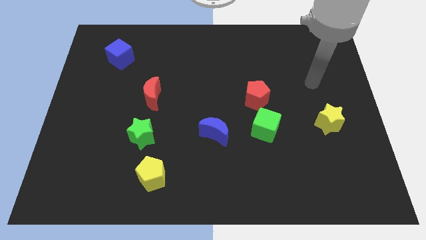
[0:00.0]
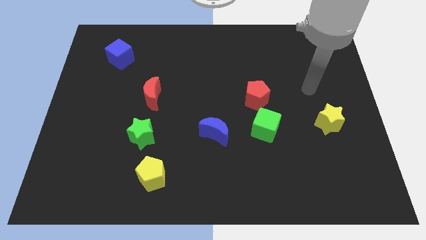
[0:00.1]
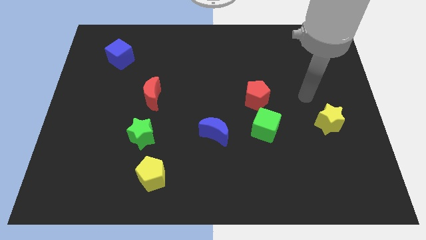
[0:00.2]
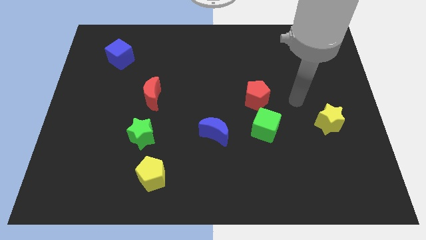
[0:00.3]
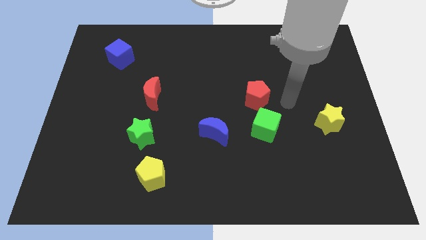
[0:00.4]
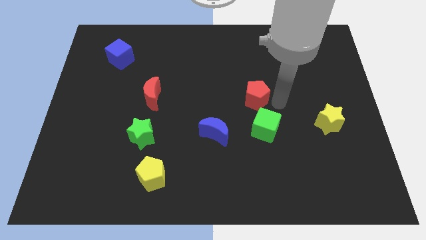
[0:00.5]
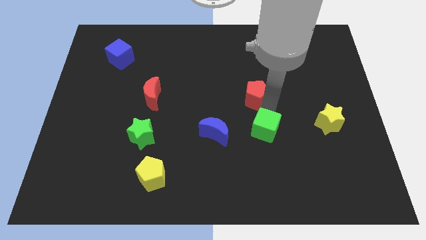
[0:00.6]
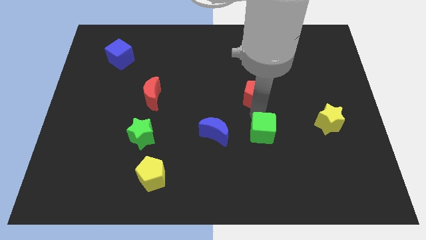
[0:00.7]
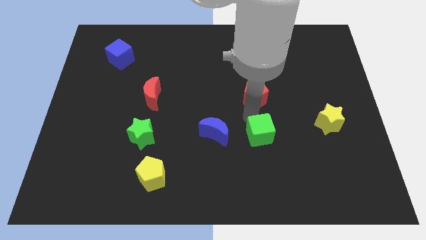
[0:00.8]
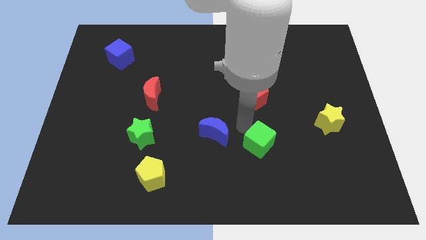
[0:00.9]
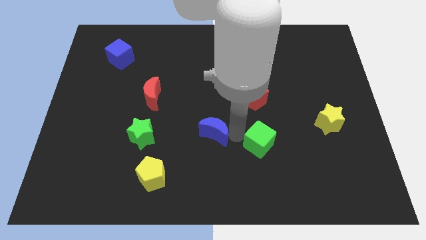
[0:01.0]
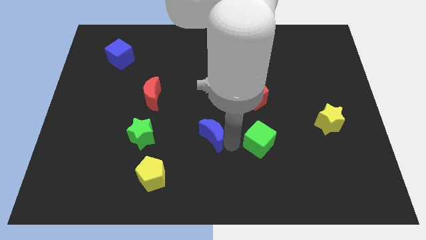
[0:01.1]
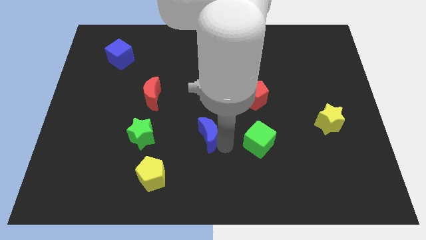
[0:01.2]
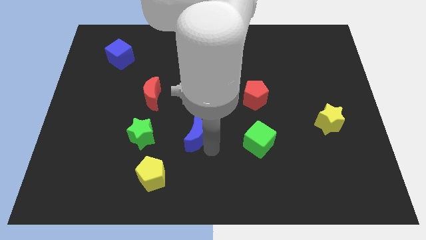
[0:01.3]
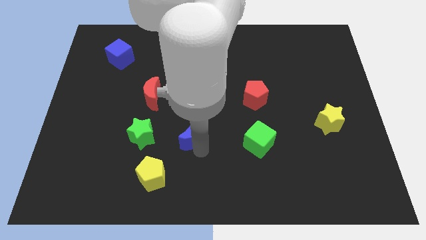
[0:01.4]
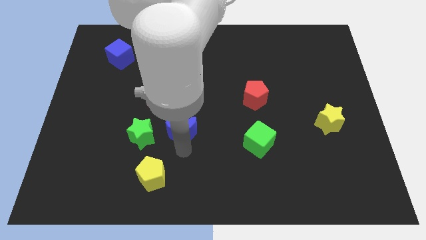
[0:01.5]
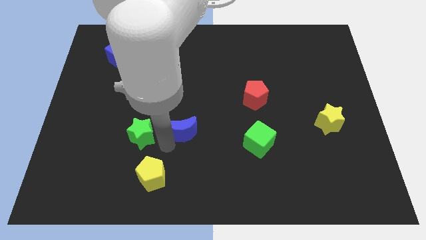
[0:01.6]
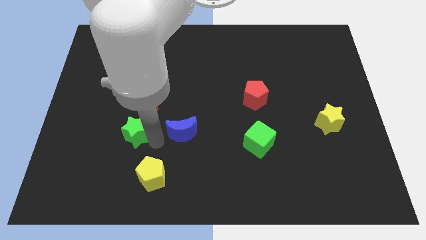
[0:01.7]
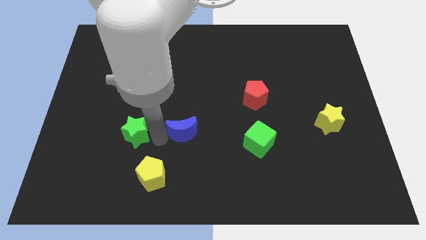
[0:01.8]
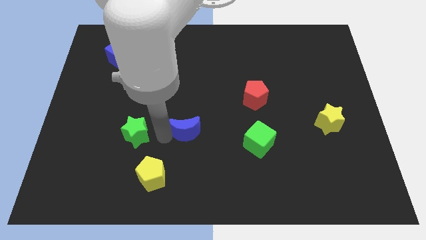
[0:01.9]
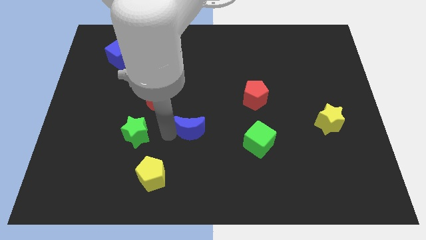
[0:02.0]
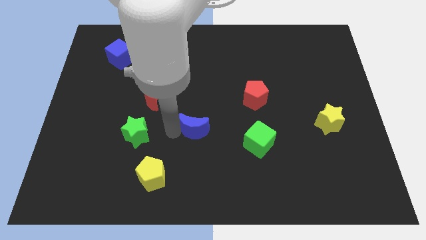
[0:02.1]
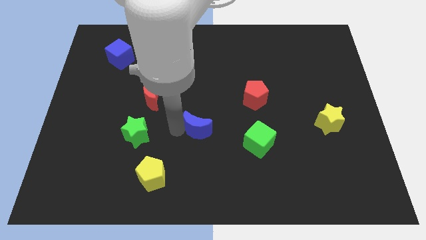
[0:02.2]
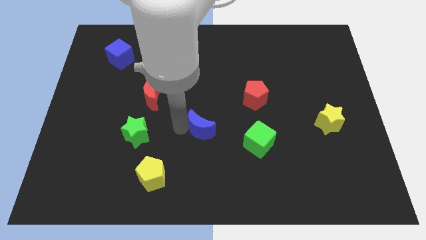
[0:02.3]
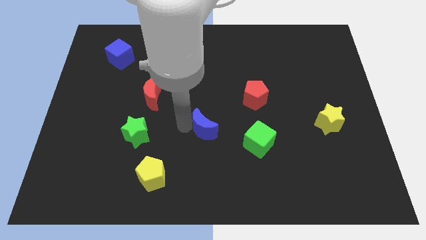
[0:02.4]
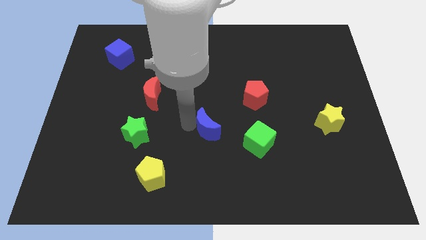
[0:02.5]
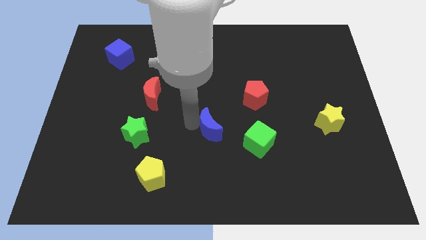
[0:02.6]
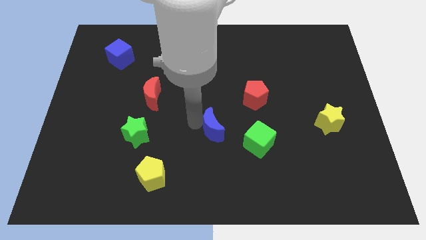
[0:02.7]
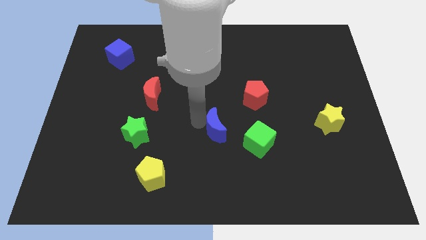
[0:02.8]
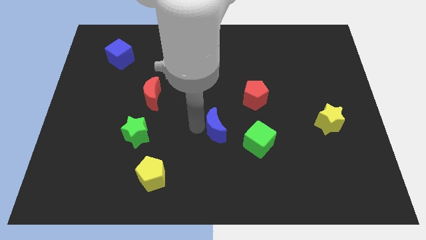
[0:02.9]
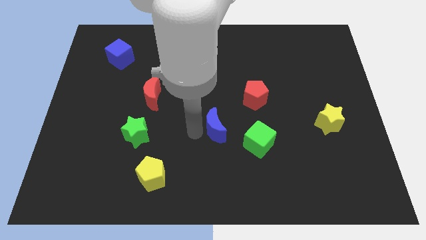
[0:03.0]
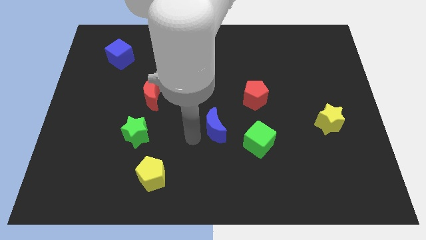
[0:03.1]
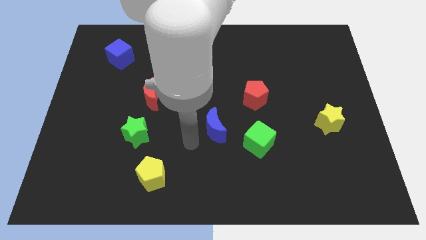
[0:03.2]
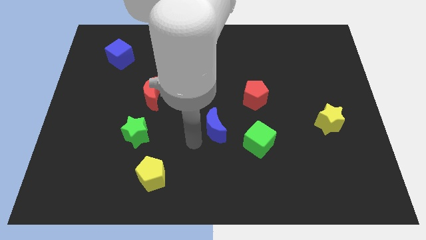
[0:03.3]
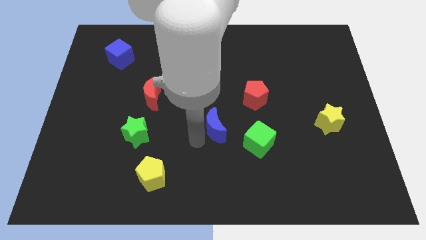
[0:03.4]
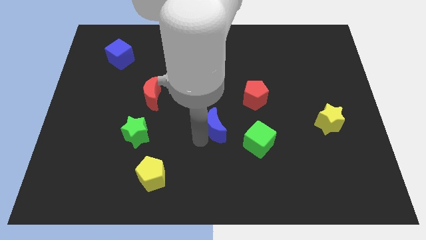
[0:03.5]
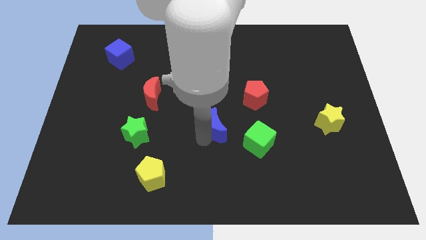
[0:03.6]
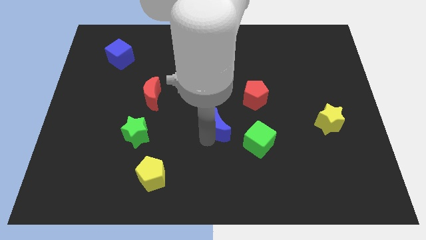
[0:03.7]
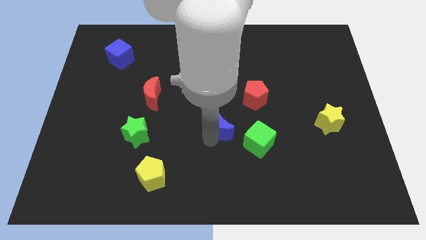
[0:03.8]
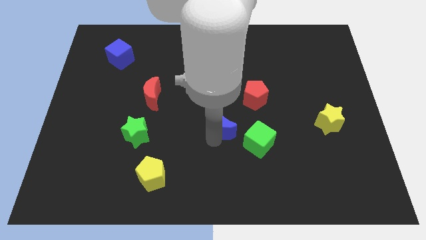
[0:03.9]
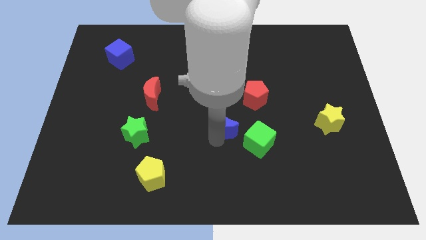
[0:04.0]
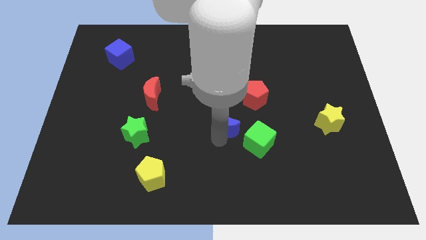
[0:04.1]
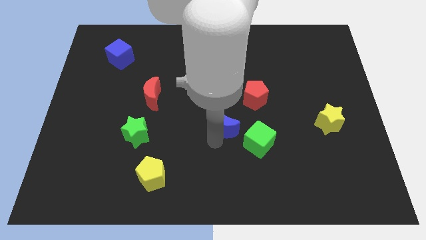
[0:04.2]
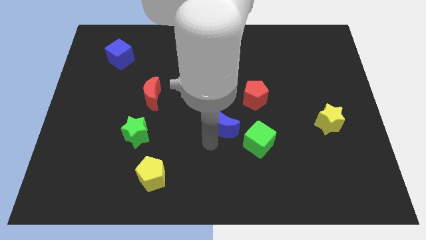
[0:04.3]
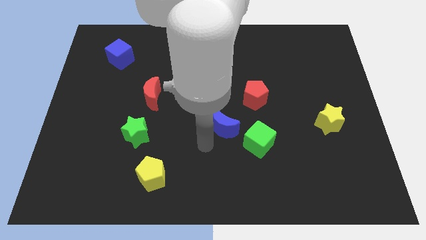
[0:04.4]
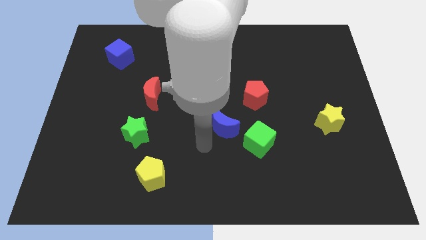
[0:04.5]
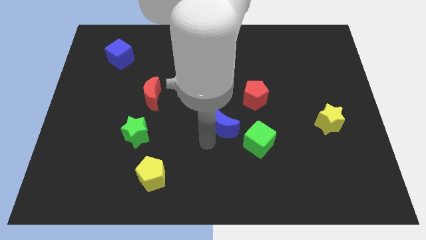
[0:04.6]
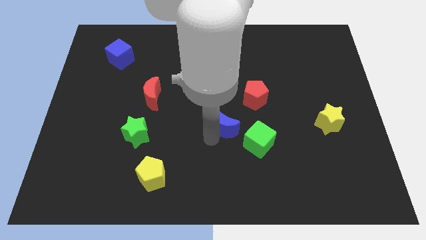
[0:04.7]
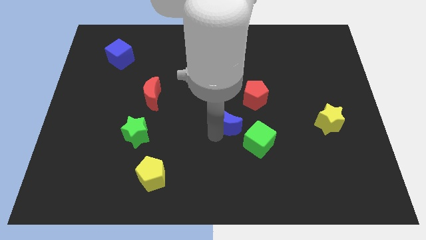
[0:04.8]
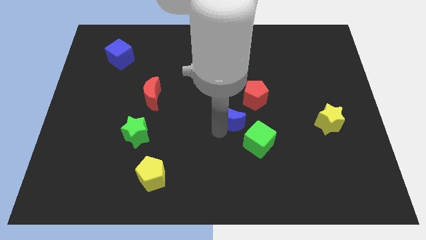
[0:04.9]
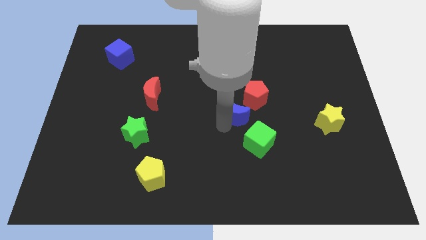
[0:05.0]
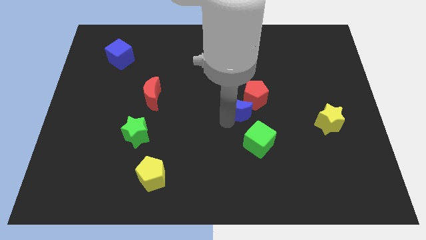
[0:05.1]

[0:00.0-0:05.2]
put the blue moon close to the red pentagon

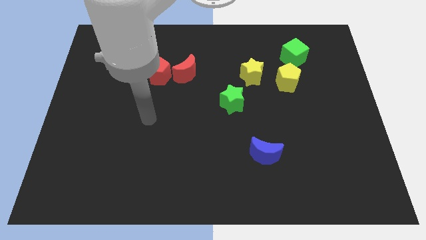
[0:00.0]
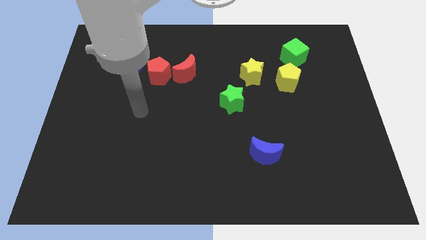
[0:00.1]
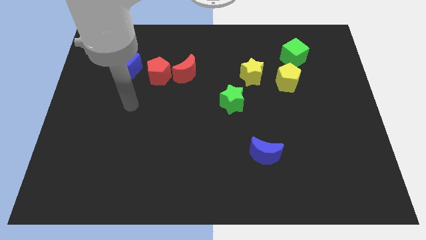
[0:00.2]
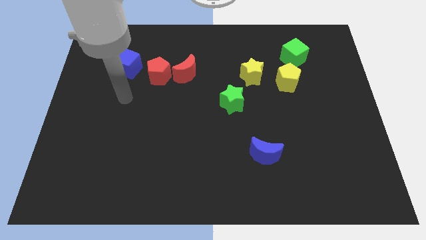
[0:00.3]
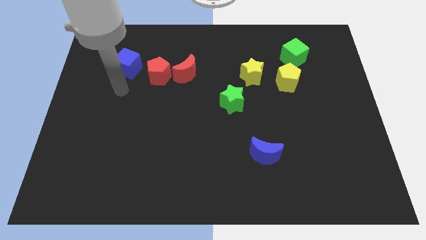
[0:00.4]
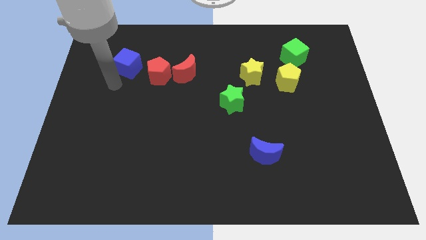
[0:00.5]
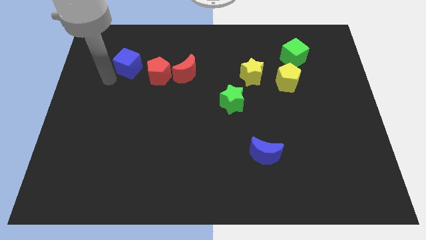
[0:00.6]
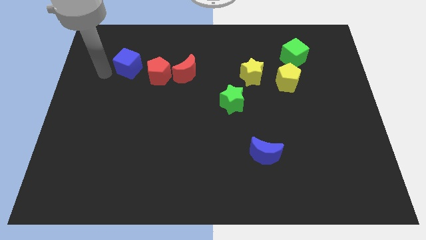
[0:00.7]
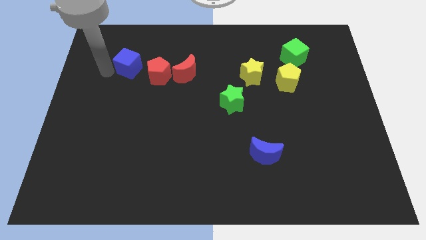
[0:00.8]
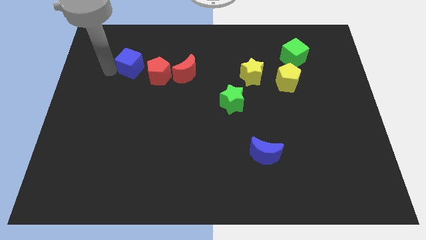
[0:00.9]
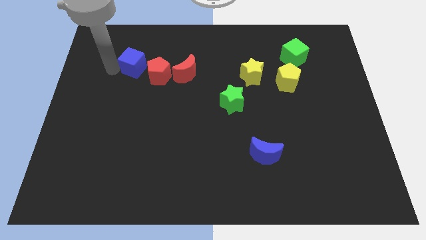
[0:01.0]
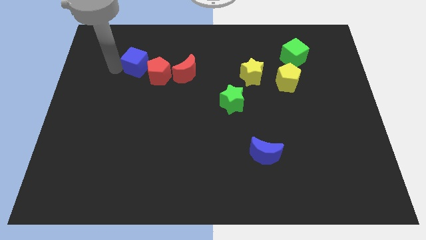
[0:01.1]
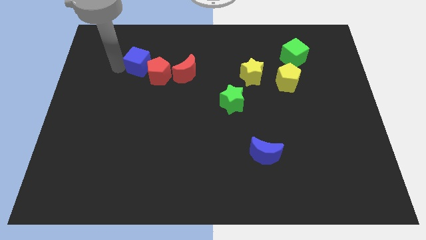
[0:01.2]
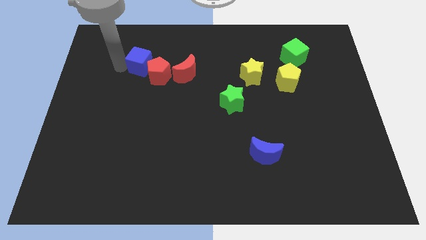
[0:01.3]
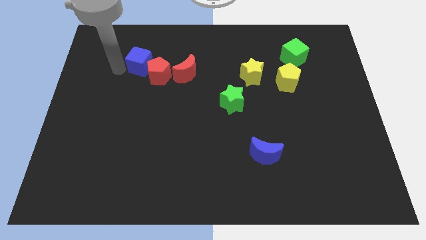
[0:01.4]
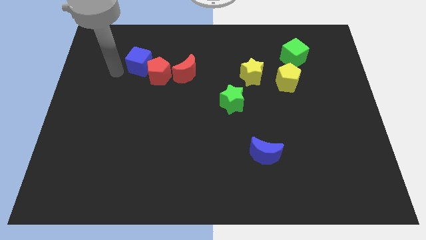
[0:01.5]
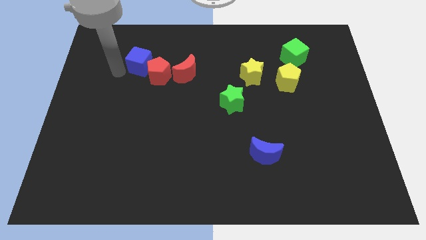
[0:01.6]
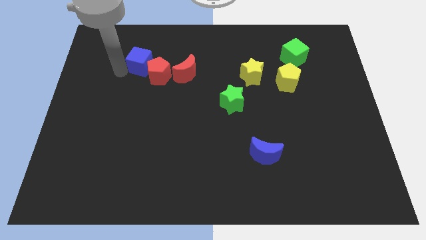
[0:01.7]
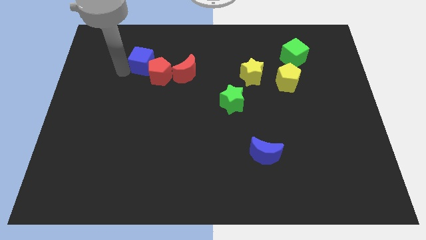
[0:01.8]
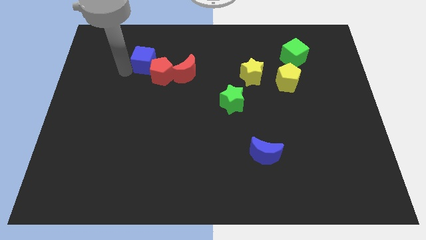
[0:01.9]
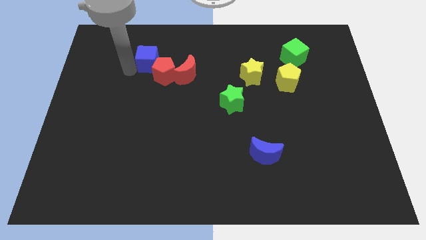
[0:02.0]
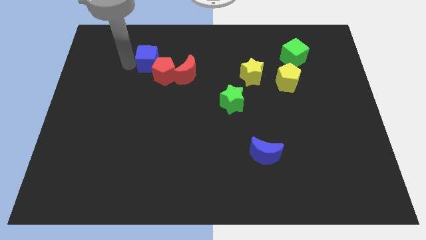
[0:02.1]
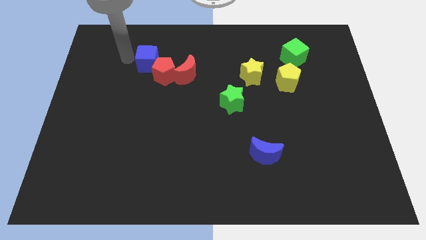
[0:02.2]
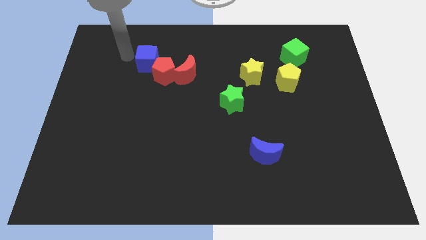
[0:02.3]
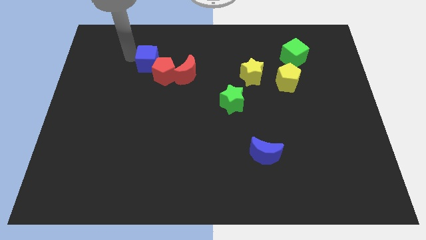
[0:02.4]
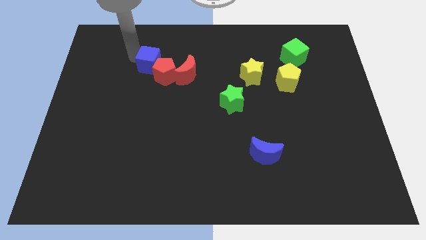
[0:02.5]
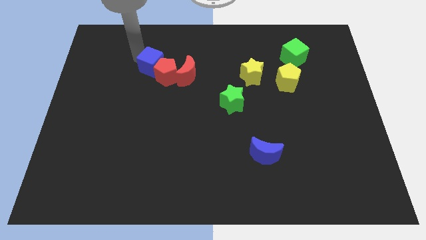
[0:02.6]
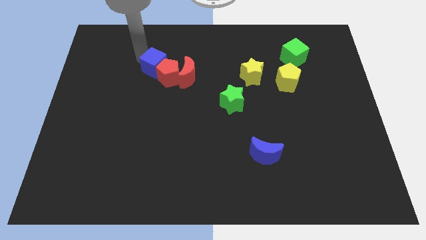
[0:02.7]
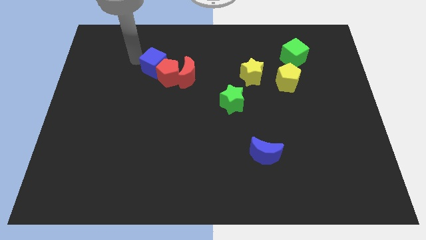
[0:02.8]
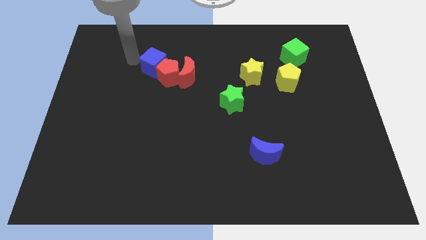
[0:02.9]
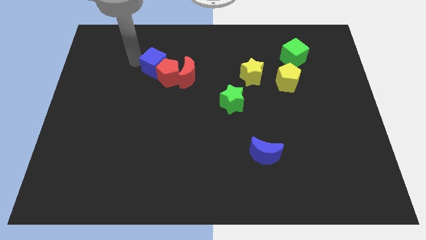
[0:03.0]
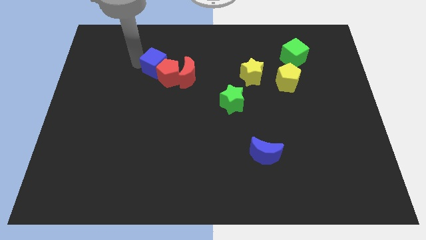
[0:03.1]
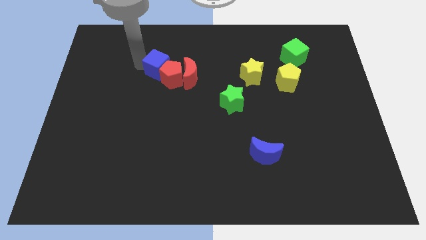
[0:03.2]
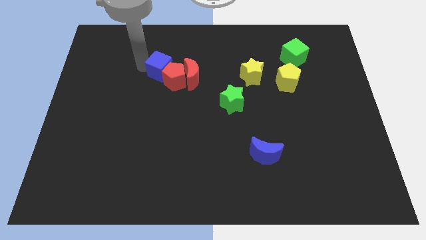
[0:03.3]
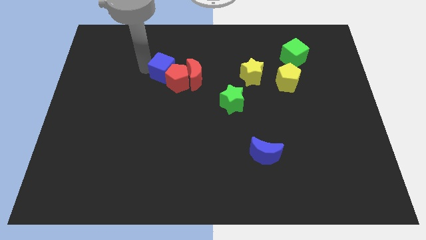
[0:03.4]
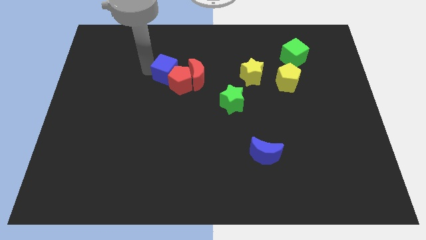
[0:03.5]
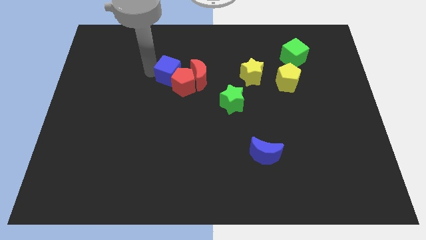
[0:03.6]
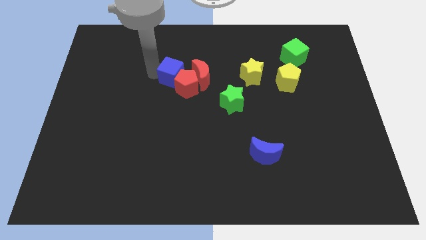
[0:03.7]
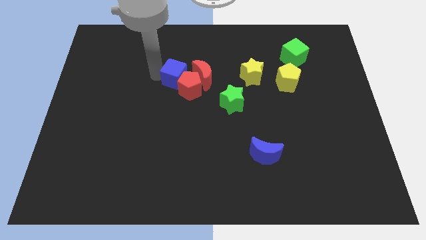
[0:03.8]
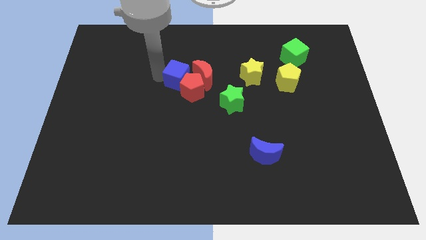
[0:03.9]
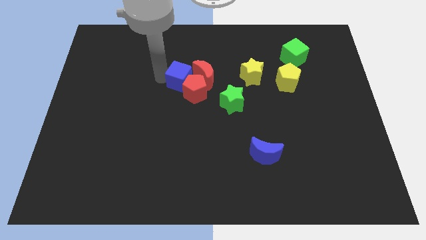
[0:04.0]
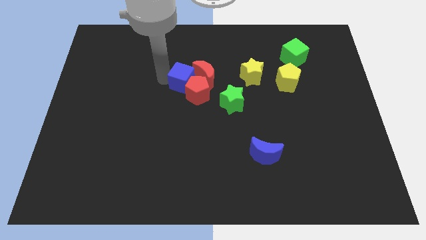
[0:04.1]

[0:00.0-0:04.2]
put the blue cube towards the red moon
